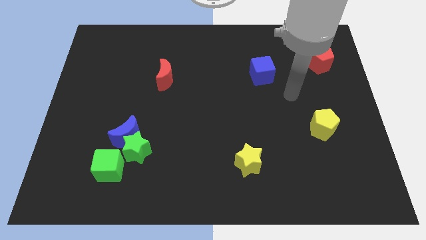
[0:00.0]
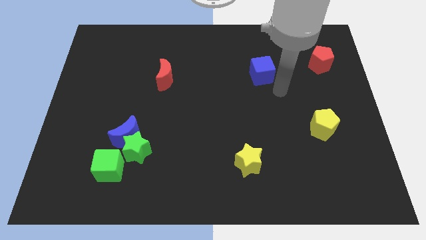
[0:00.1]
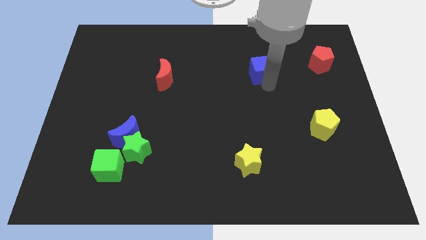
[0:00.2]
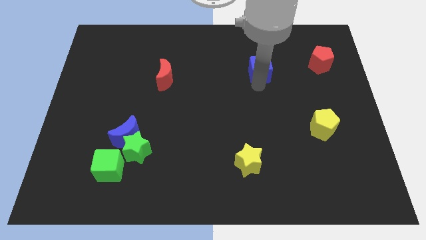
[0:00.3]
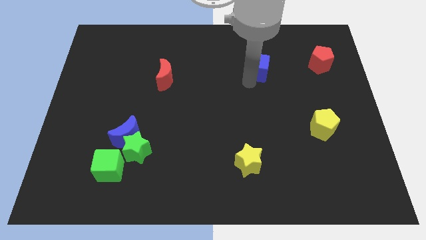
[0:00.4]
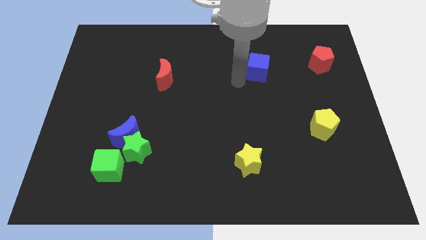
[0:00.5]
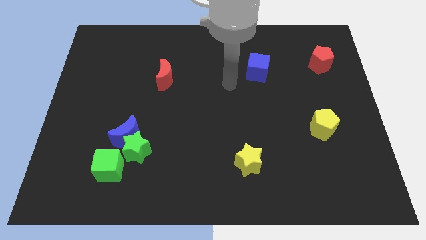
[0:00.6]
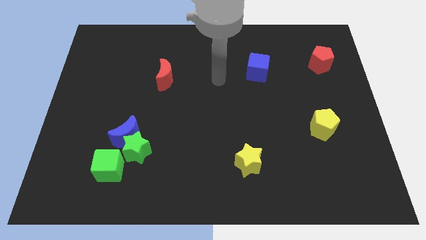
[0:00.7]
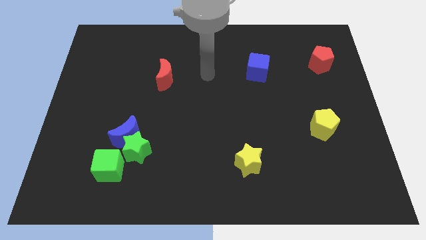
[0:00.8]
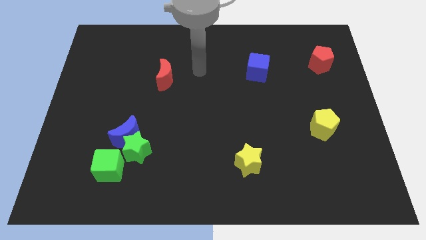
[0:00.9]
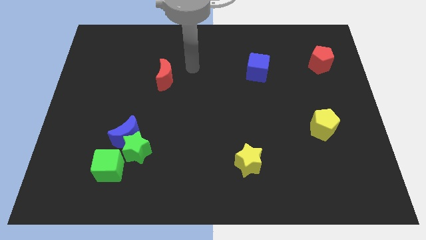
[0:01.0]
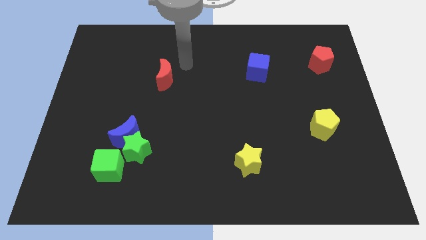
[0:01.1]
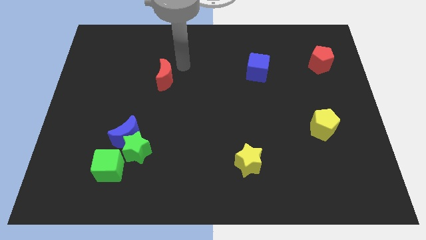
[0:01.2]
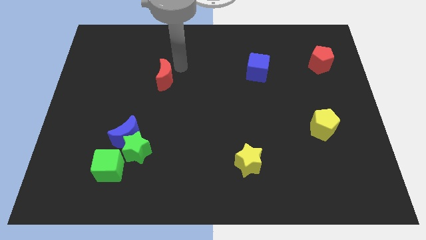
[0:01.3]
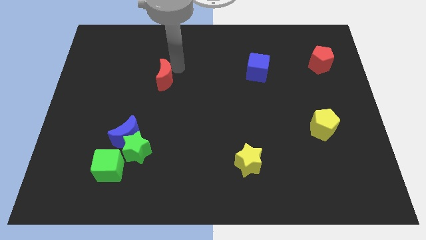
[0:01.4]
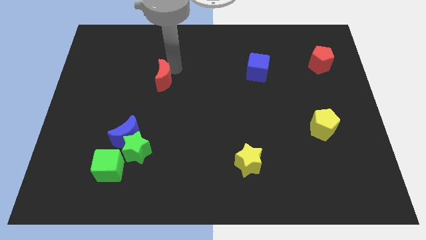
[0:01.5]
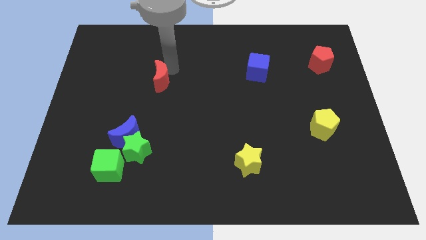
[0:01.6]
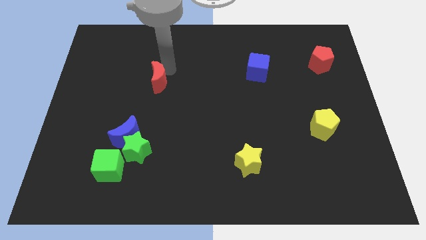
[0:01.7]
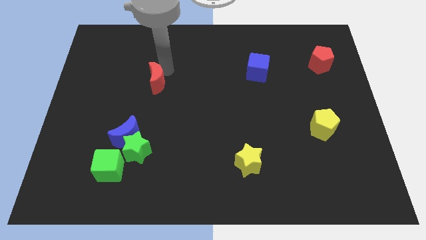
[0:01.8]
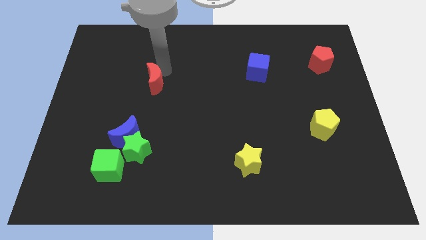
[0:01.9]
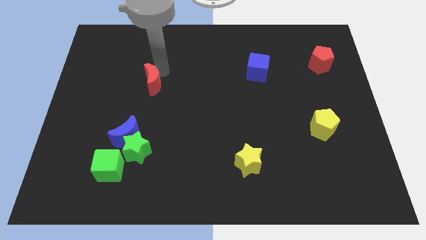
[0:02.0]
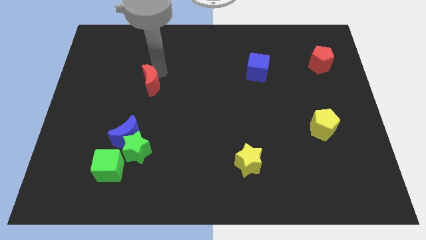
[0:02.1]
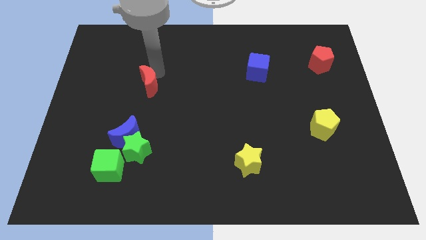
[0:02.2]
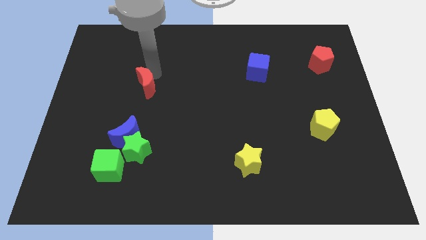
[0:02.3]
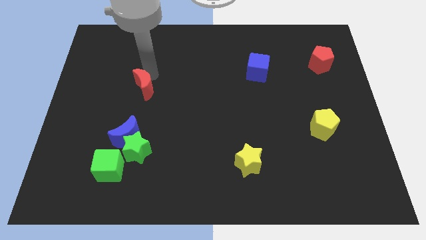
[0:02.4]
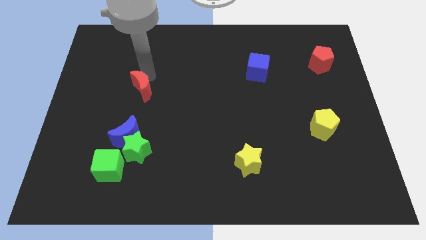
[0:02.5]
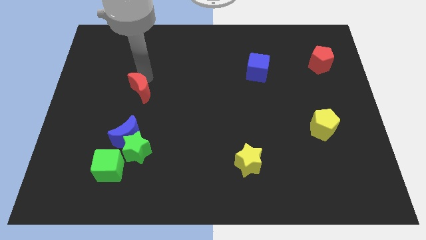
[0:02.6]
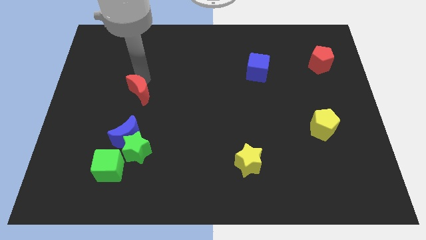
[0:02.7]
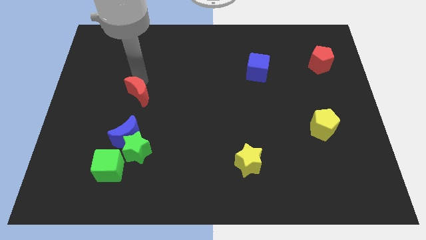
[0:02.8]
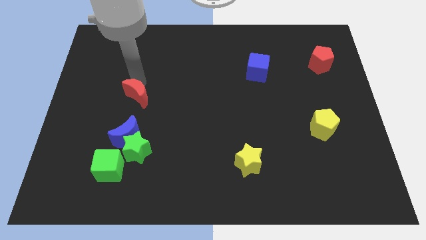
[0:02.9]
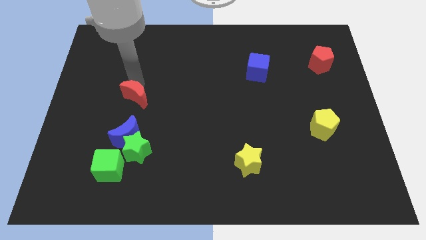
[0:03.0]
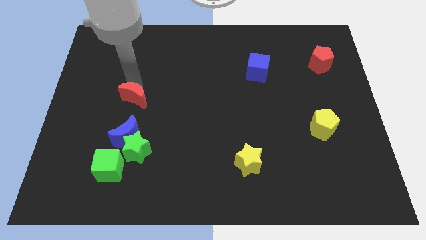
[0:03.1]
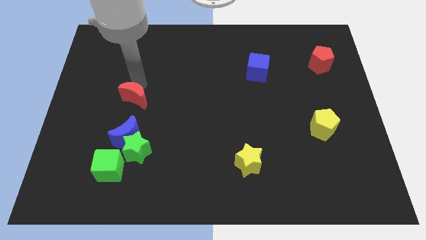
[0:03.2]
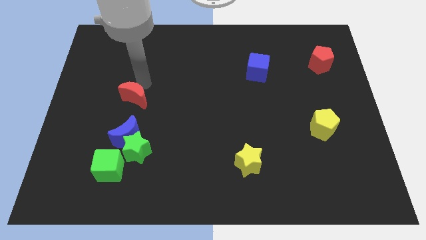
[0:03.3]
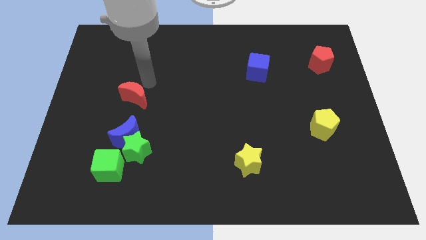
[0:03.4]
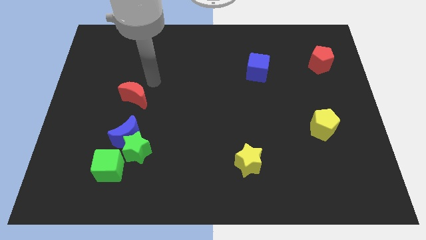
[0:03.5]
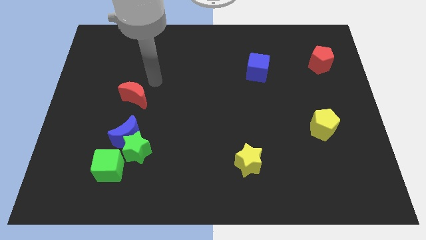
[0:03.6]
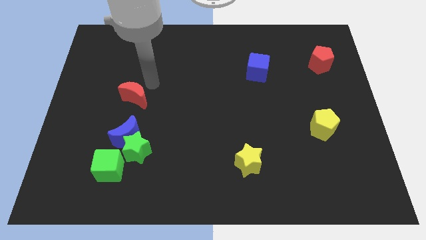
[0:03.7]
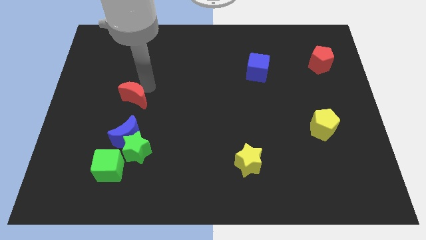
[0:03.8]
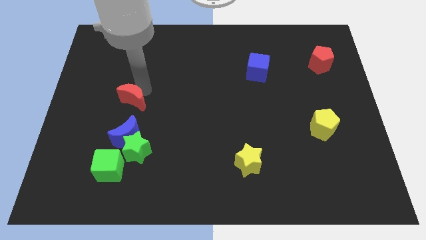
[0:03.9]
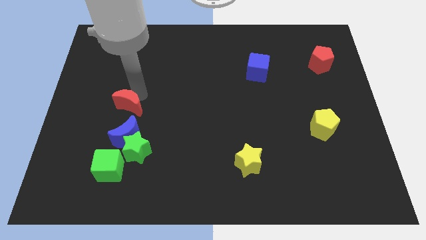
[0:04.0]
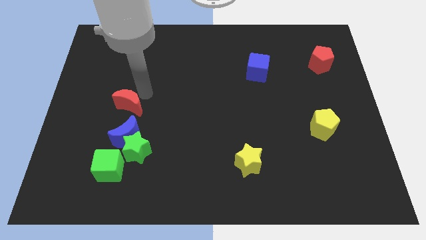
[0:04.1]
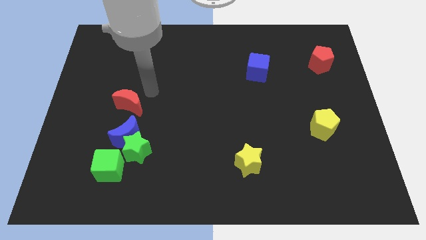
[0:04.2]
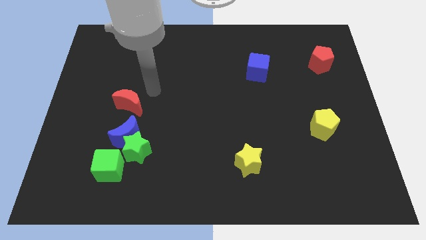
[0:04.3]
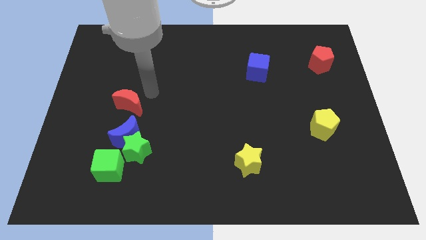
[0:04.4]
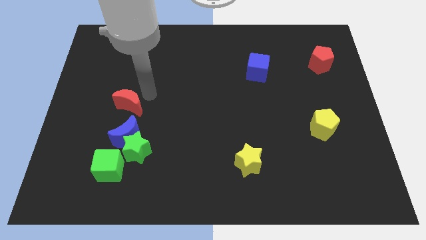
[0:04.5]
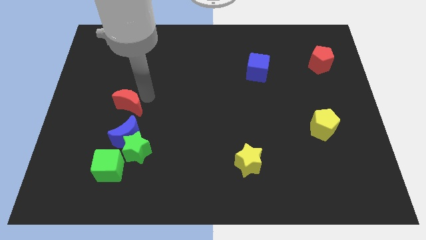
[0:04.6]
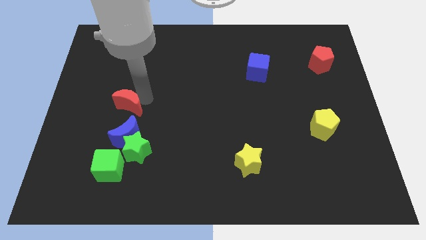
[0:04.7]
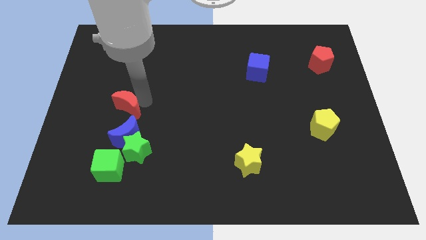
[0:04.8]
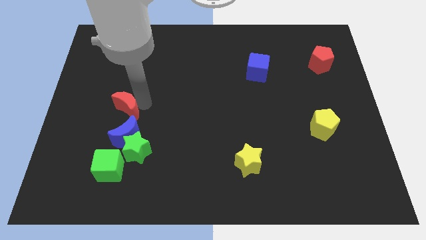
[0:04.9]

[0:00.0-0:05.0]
put the red moon to the top left of the blue moon

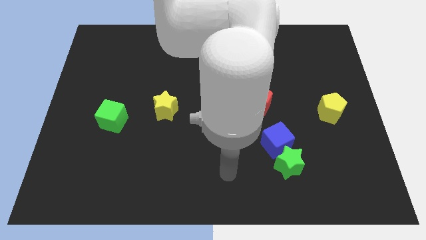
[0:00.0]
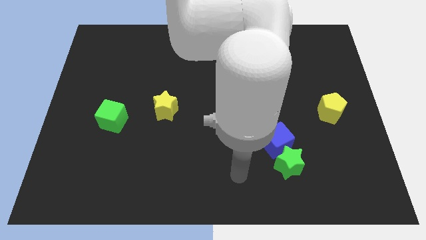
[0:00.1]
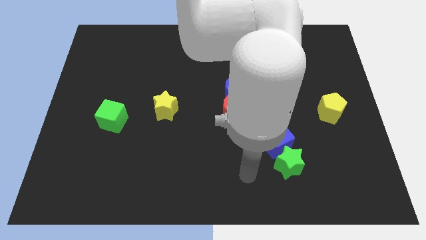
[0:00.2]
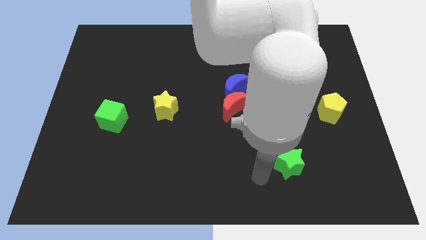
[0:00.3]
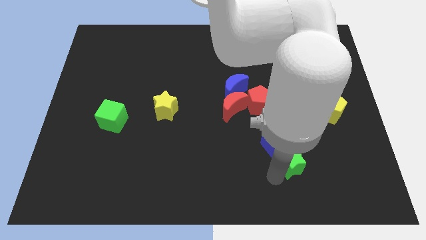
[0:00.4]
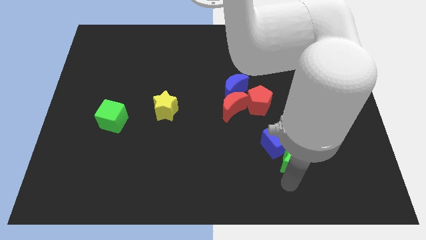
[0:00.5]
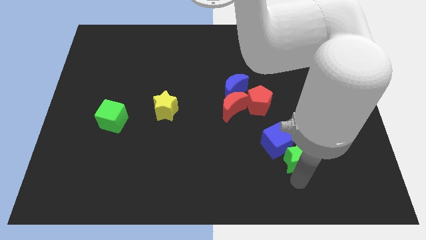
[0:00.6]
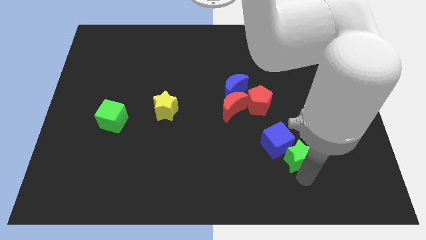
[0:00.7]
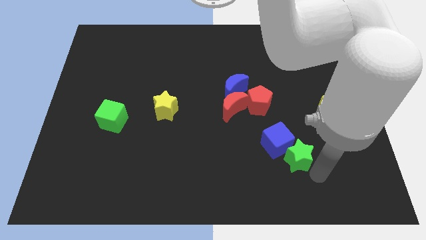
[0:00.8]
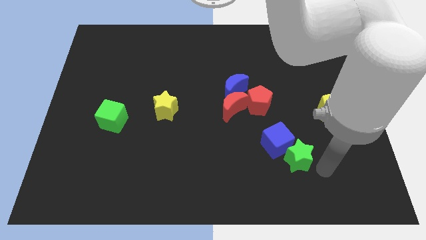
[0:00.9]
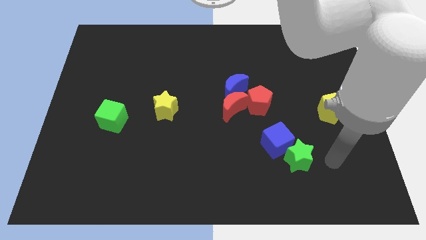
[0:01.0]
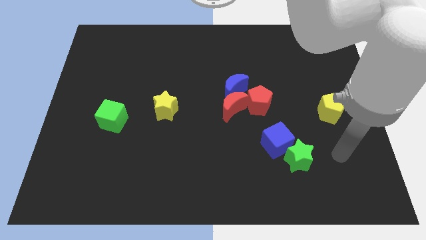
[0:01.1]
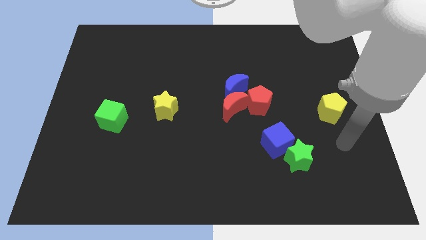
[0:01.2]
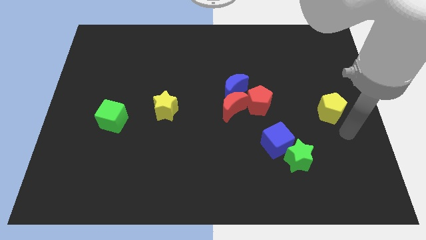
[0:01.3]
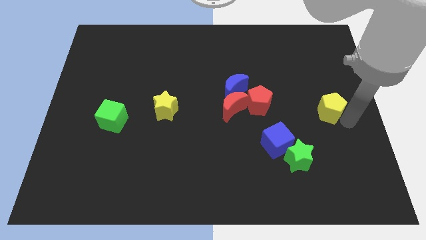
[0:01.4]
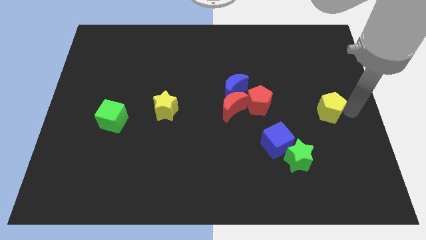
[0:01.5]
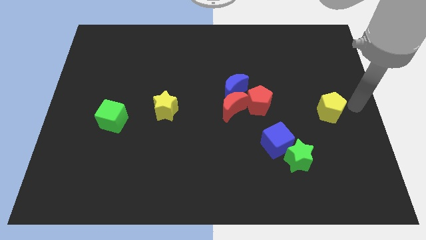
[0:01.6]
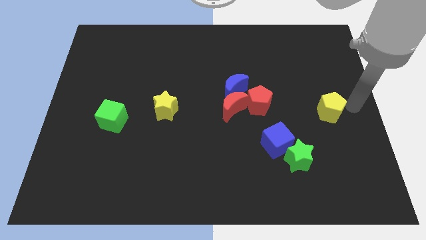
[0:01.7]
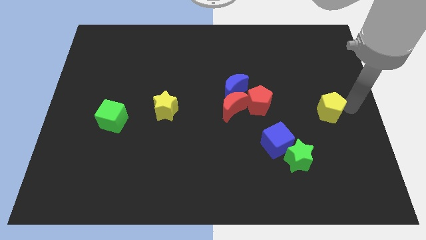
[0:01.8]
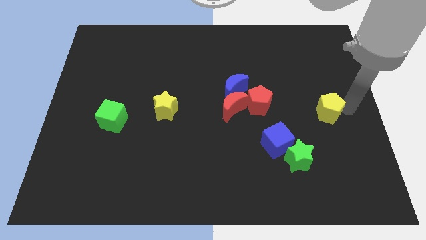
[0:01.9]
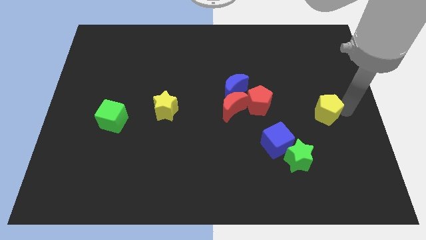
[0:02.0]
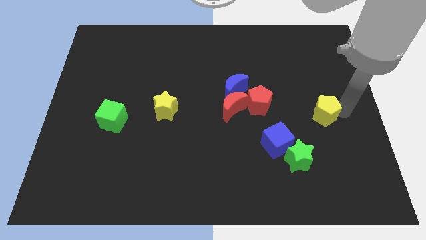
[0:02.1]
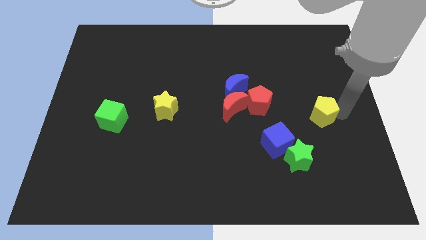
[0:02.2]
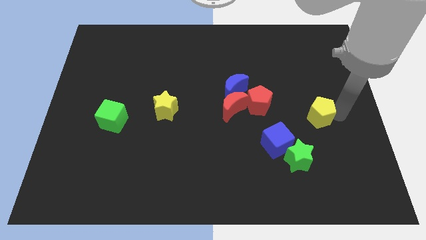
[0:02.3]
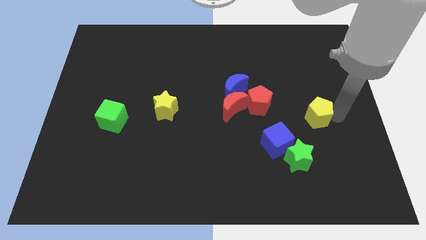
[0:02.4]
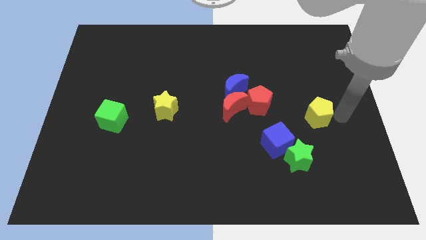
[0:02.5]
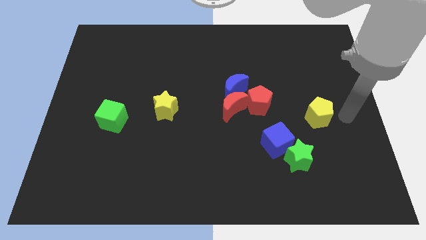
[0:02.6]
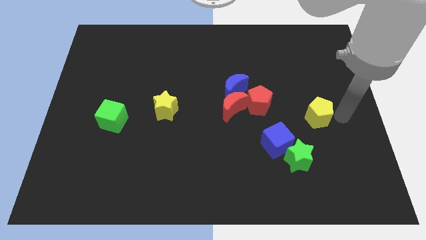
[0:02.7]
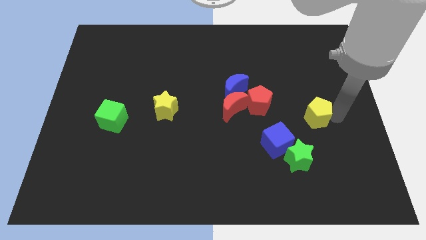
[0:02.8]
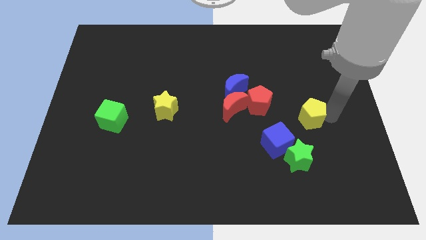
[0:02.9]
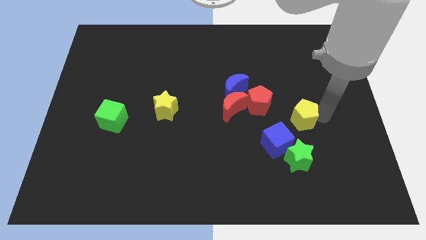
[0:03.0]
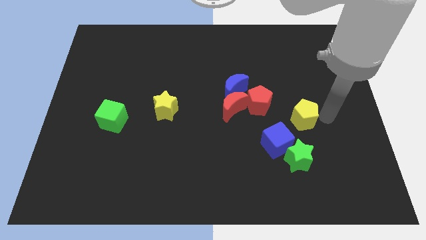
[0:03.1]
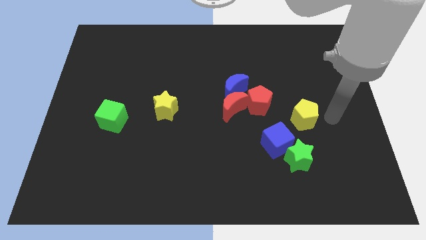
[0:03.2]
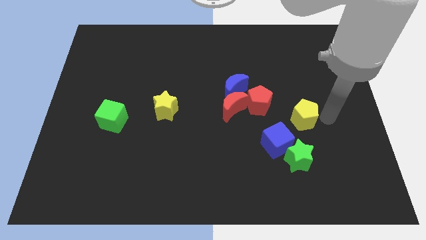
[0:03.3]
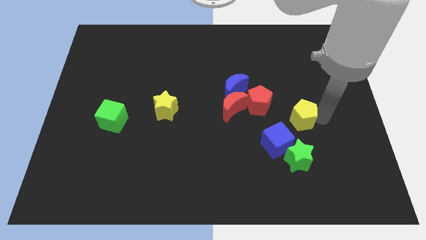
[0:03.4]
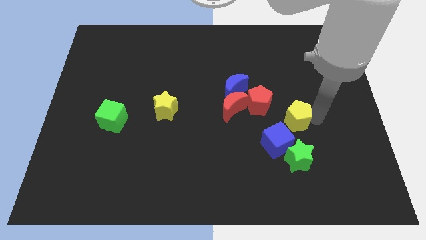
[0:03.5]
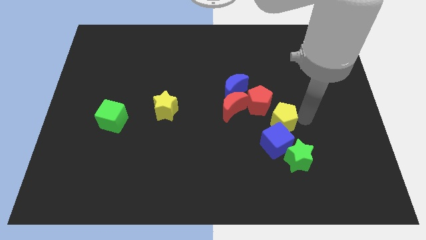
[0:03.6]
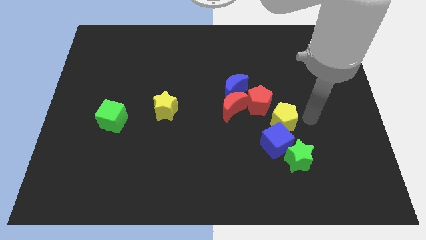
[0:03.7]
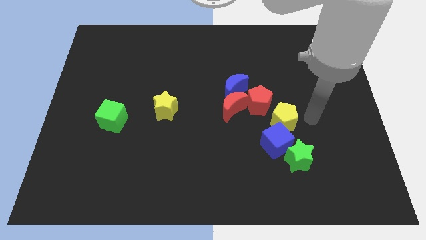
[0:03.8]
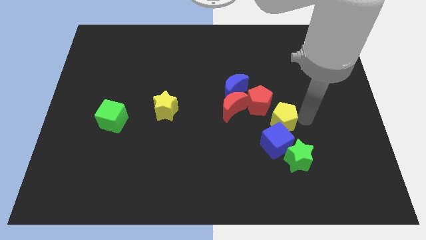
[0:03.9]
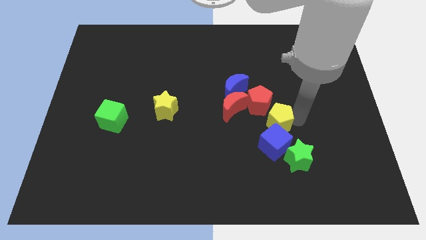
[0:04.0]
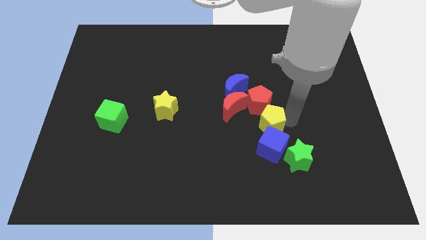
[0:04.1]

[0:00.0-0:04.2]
put the yellow pentagon diagonally up and to the left of the blue cube
